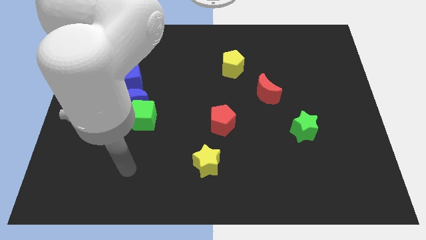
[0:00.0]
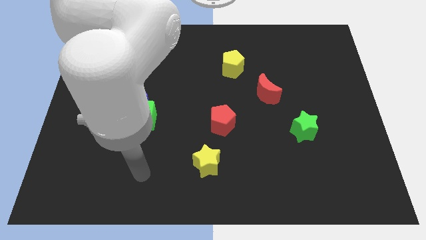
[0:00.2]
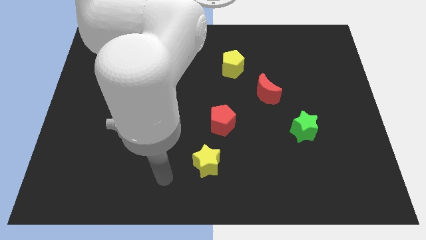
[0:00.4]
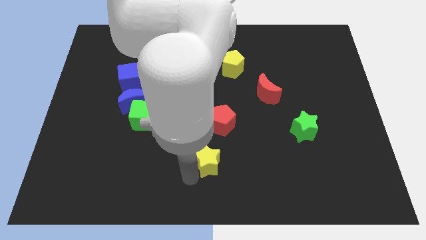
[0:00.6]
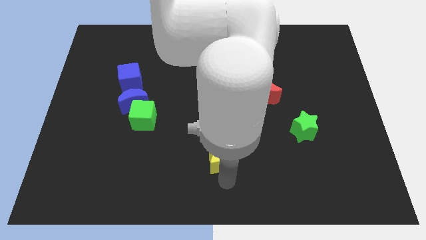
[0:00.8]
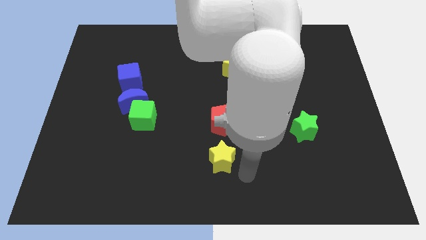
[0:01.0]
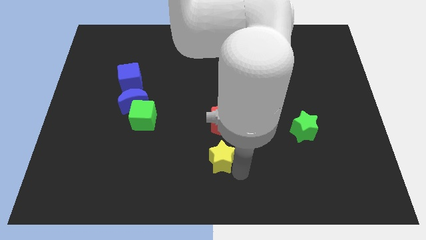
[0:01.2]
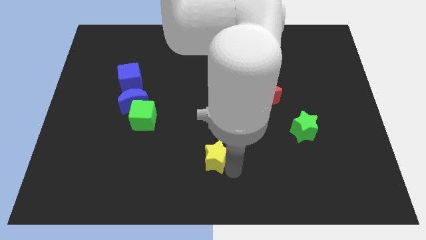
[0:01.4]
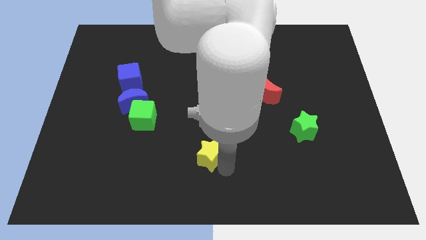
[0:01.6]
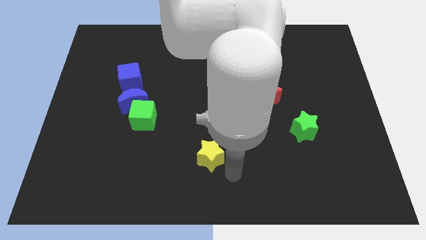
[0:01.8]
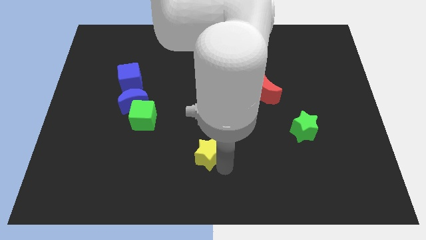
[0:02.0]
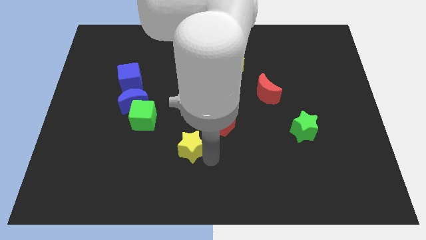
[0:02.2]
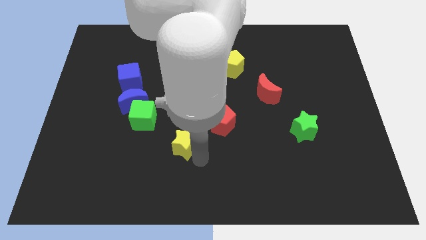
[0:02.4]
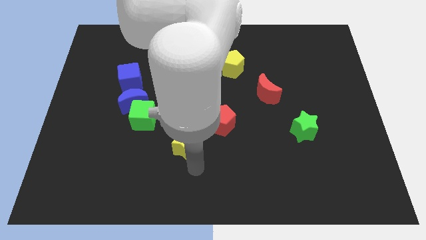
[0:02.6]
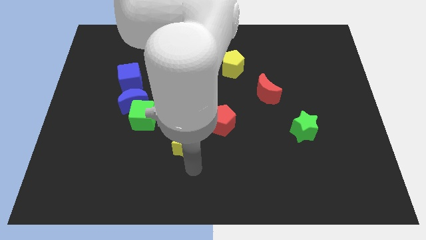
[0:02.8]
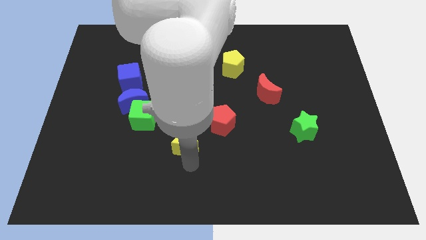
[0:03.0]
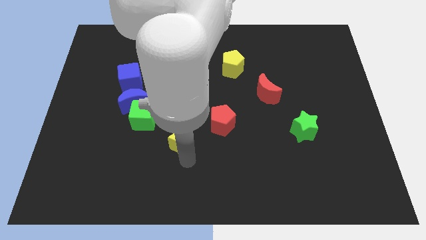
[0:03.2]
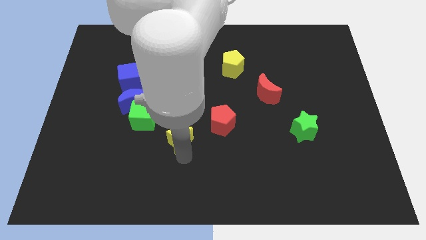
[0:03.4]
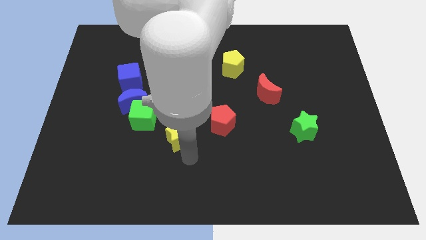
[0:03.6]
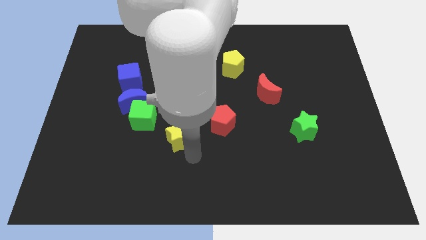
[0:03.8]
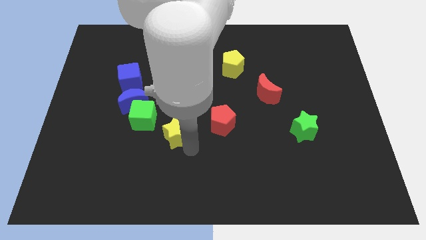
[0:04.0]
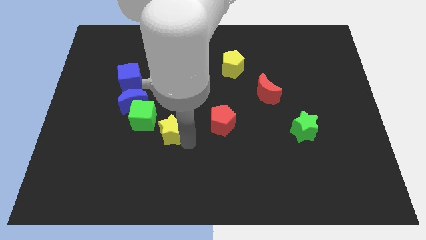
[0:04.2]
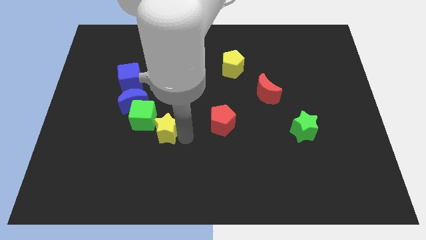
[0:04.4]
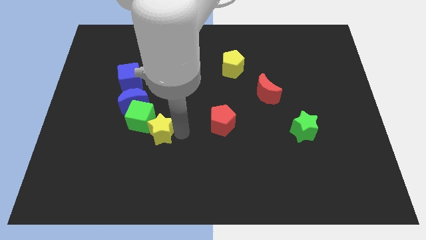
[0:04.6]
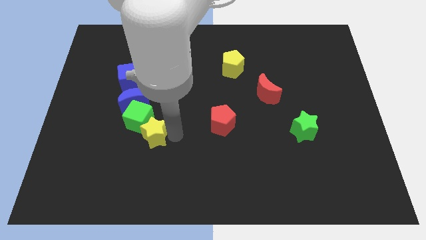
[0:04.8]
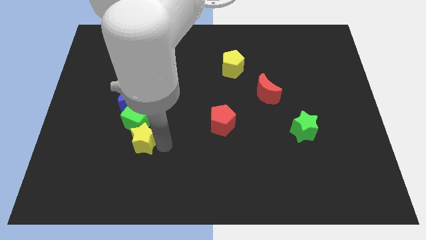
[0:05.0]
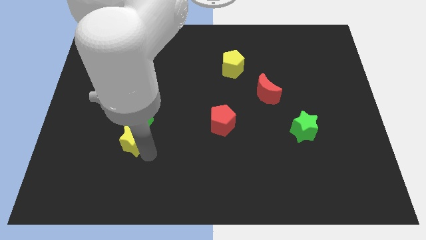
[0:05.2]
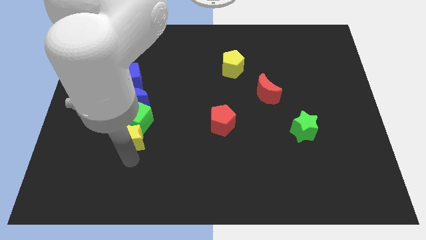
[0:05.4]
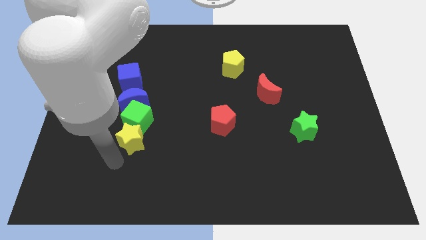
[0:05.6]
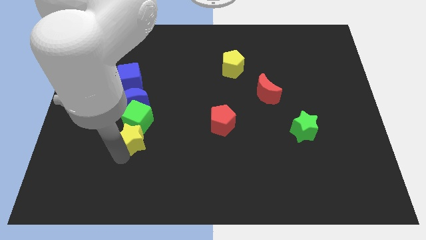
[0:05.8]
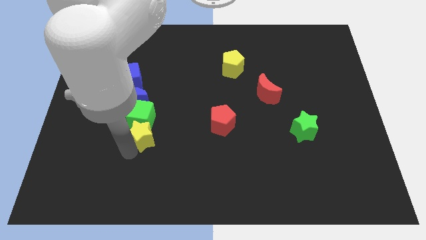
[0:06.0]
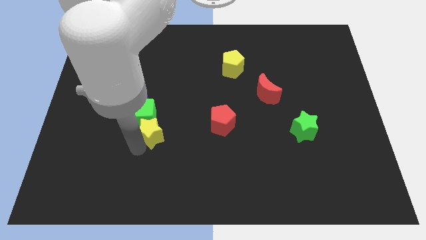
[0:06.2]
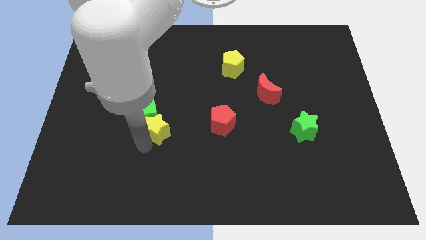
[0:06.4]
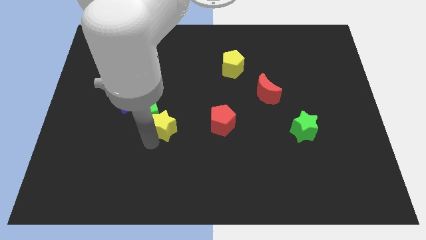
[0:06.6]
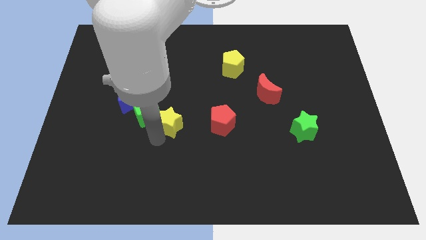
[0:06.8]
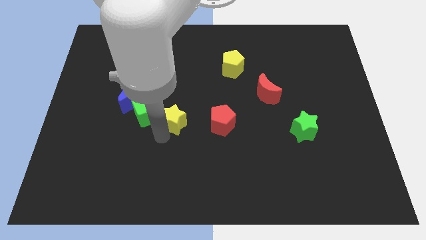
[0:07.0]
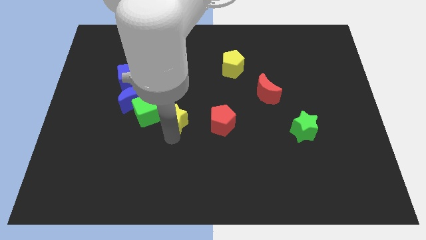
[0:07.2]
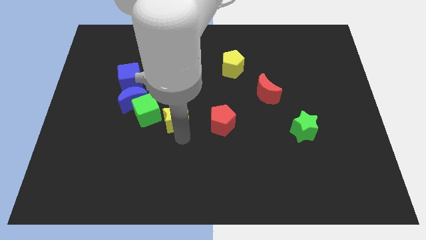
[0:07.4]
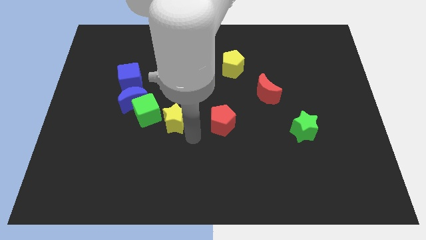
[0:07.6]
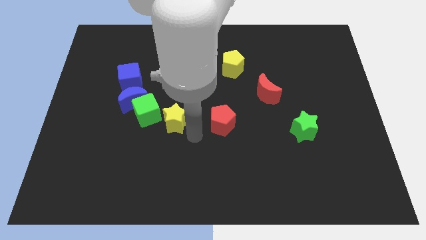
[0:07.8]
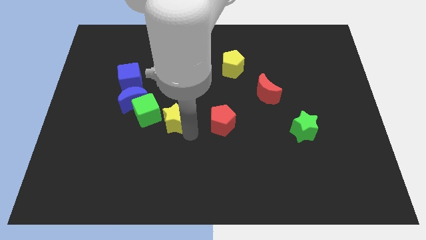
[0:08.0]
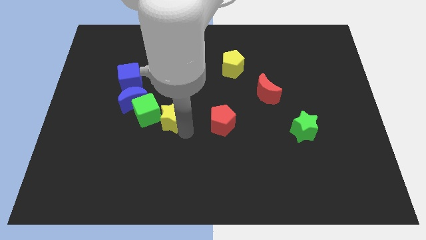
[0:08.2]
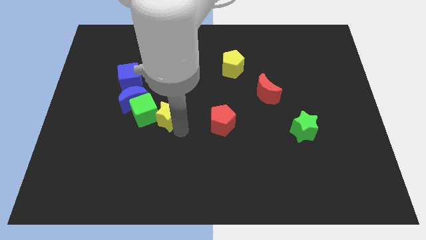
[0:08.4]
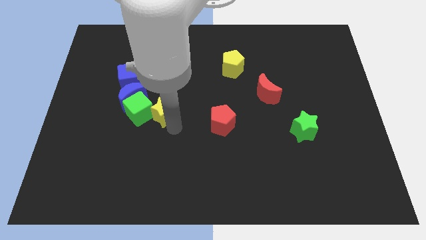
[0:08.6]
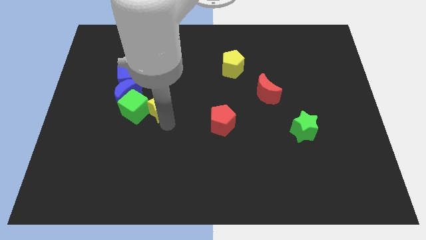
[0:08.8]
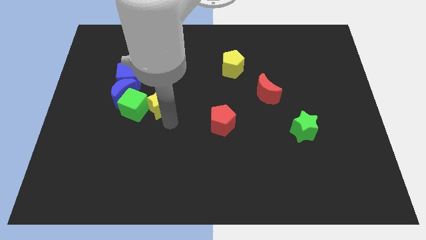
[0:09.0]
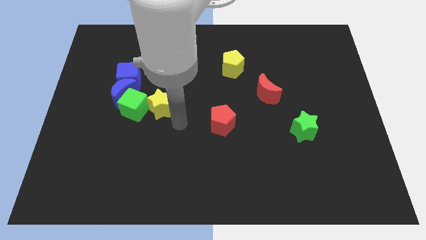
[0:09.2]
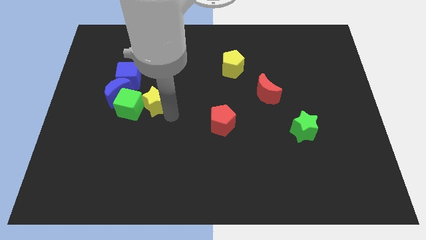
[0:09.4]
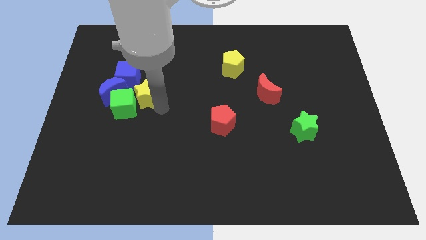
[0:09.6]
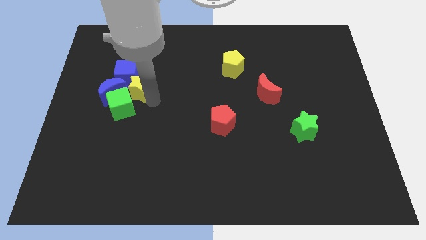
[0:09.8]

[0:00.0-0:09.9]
slide the yellow star to the blue cube

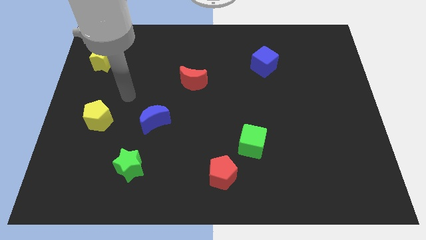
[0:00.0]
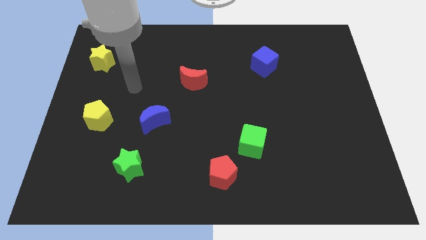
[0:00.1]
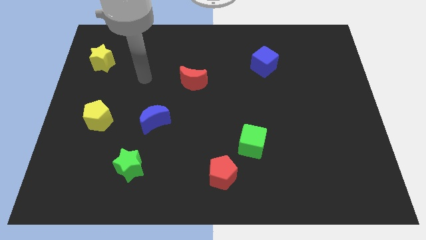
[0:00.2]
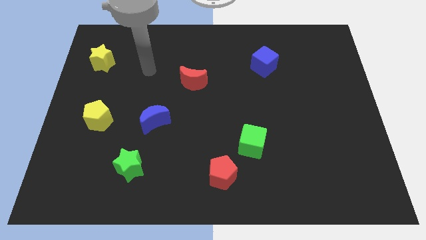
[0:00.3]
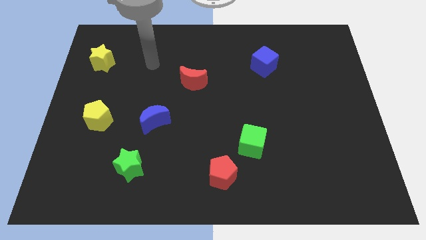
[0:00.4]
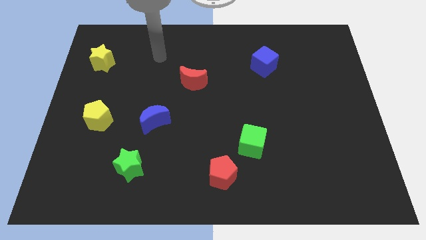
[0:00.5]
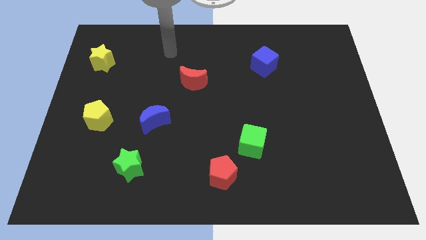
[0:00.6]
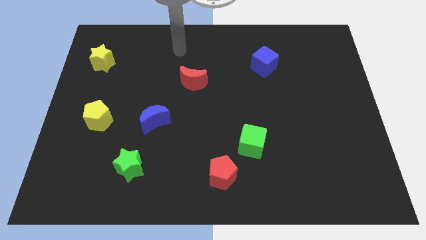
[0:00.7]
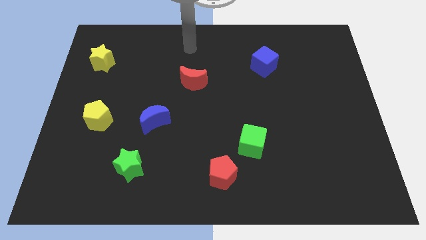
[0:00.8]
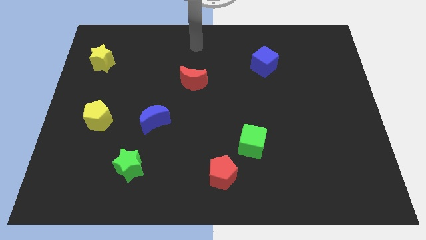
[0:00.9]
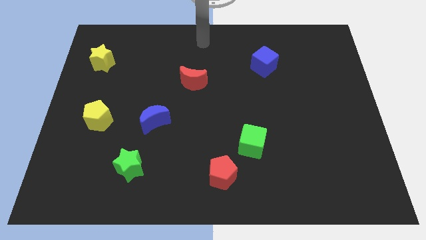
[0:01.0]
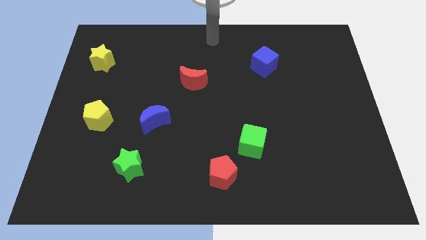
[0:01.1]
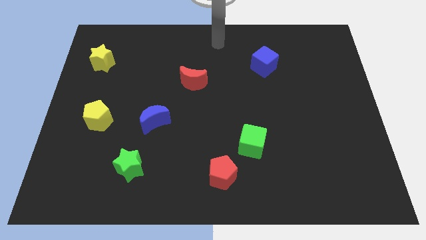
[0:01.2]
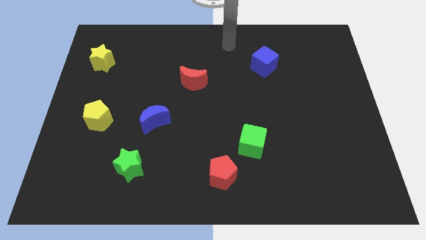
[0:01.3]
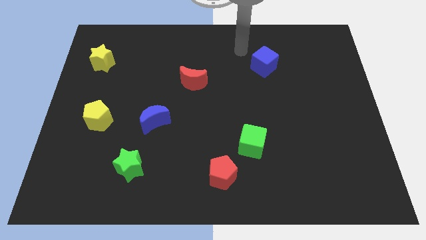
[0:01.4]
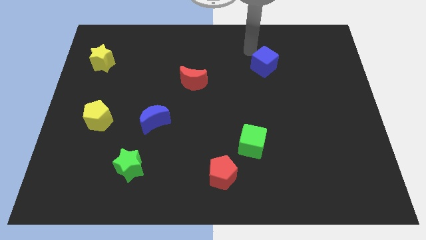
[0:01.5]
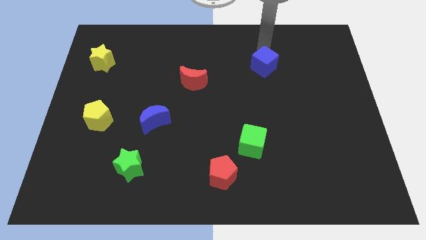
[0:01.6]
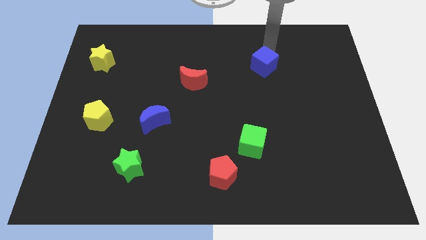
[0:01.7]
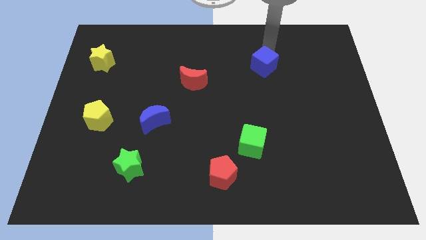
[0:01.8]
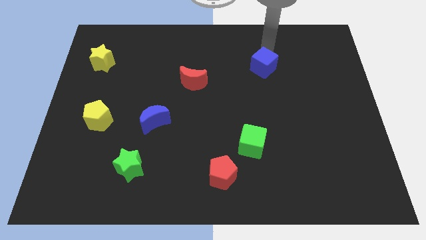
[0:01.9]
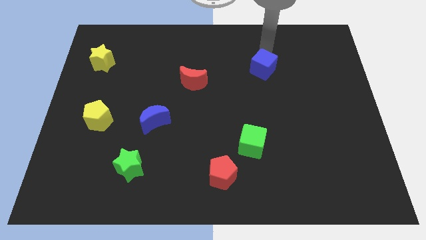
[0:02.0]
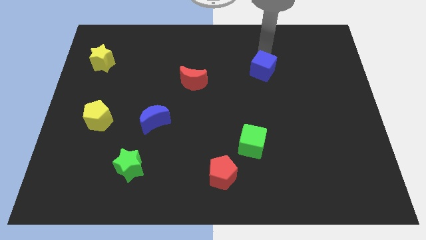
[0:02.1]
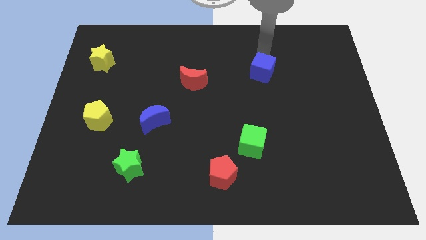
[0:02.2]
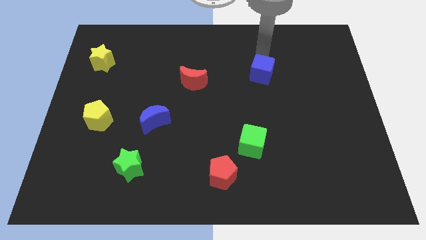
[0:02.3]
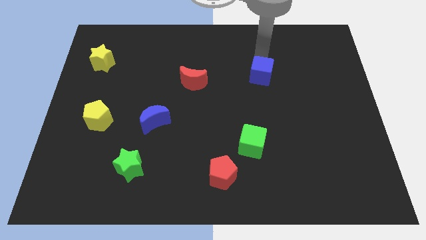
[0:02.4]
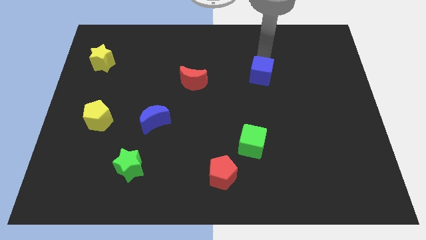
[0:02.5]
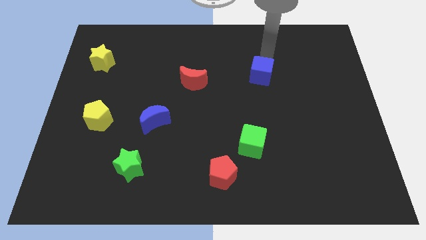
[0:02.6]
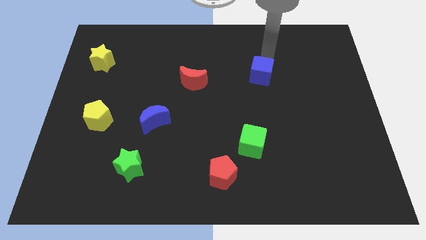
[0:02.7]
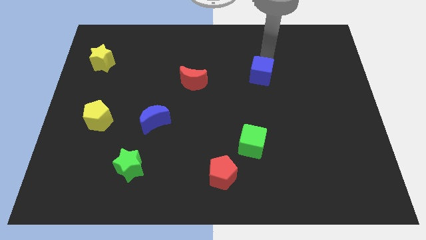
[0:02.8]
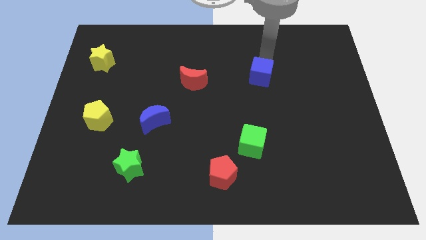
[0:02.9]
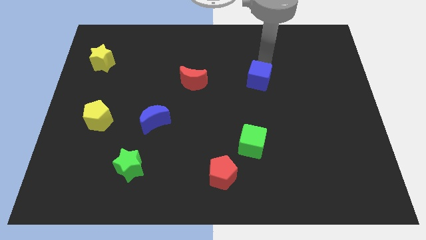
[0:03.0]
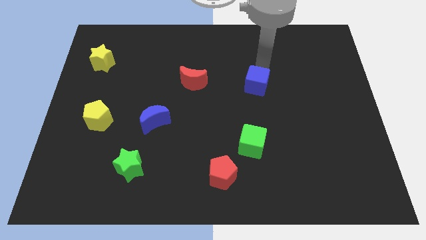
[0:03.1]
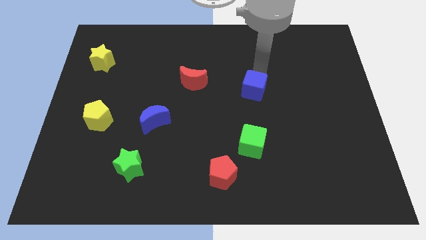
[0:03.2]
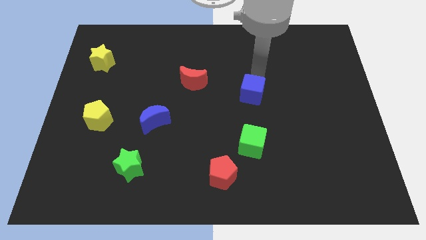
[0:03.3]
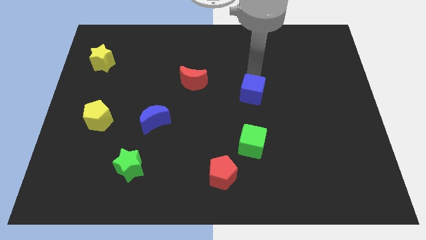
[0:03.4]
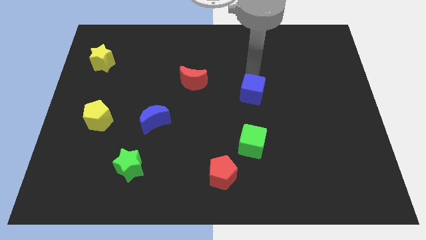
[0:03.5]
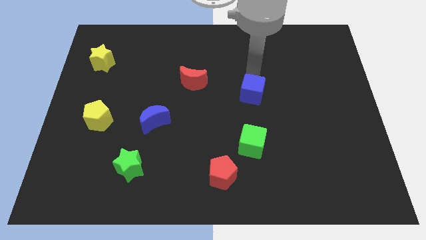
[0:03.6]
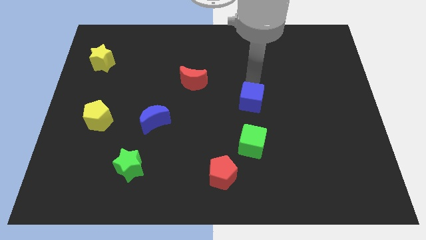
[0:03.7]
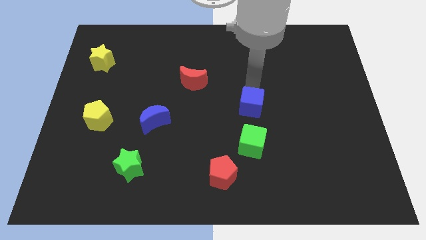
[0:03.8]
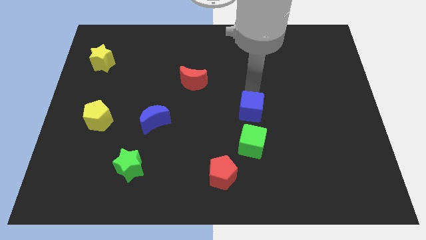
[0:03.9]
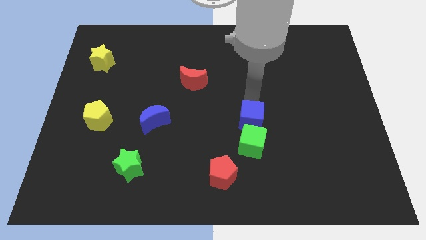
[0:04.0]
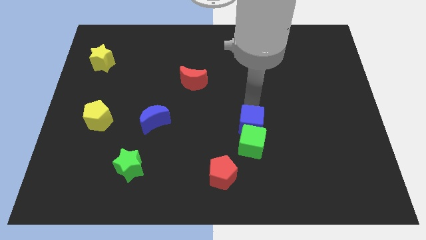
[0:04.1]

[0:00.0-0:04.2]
move the blue cube close to the green cube
